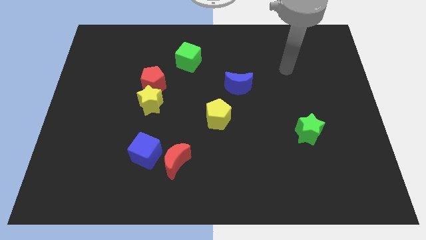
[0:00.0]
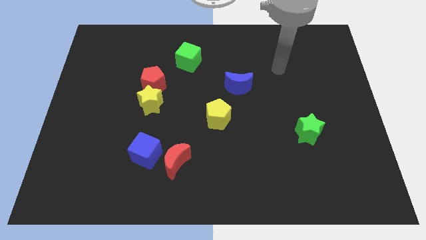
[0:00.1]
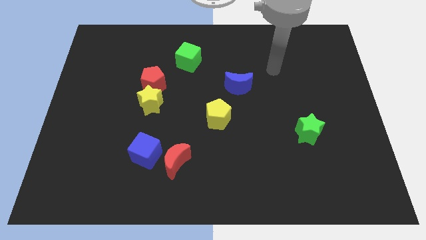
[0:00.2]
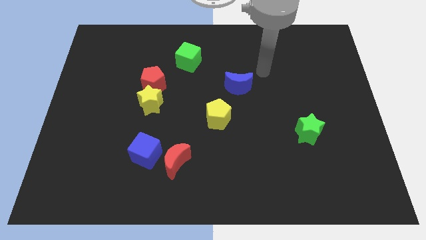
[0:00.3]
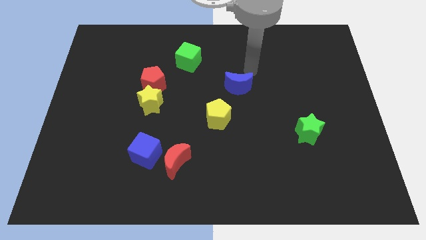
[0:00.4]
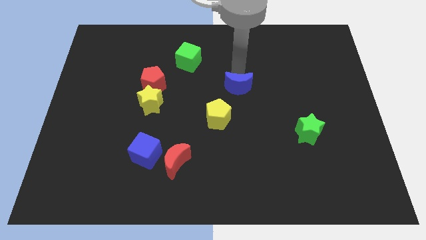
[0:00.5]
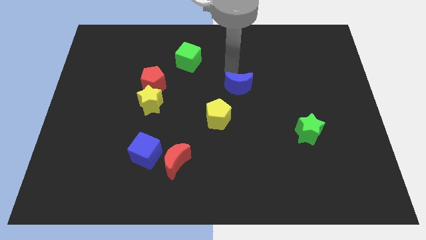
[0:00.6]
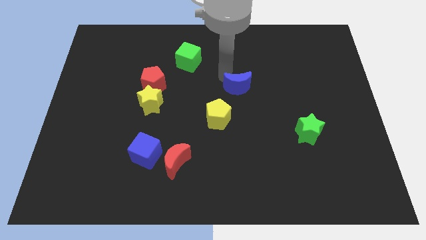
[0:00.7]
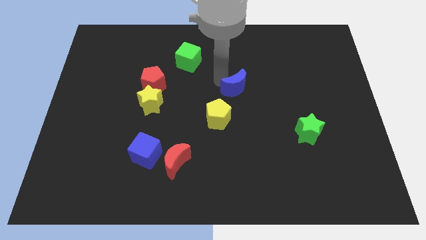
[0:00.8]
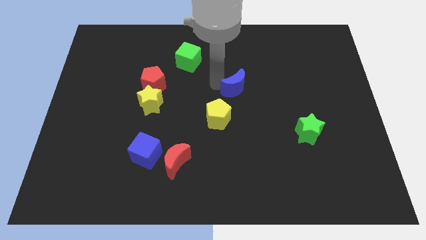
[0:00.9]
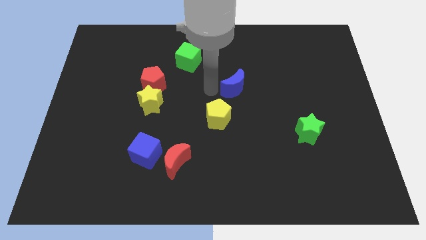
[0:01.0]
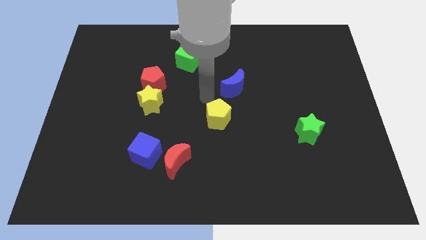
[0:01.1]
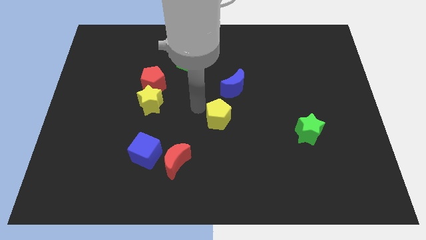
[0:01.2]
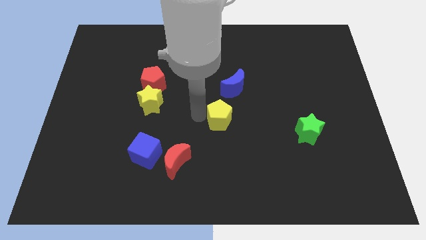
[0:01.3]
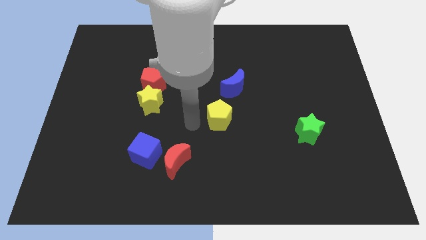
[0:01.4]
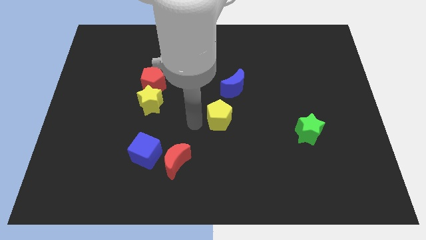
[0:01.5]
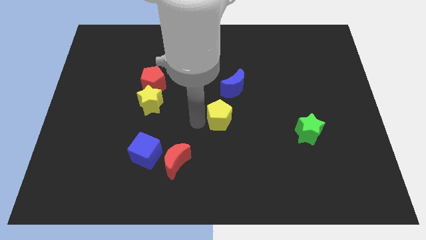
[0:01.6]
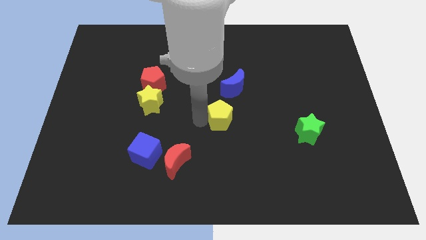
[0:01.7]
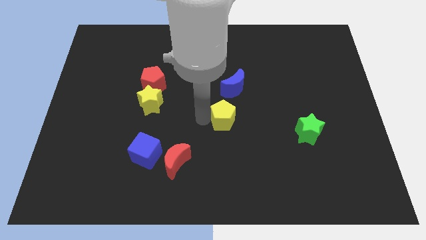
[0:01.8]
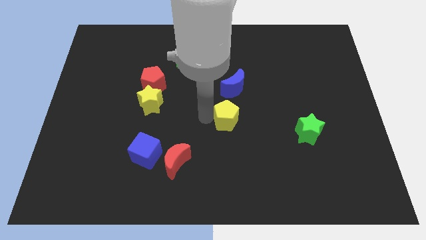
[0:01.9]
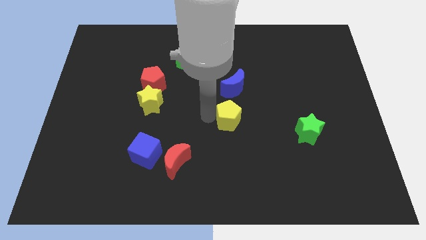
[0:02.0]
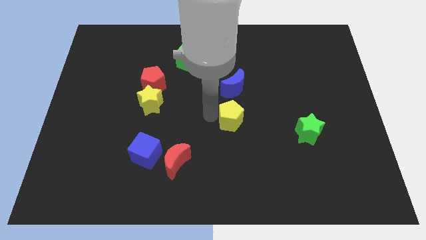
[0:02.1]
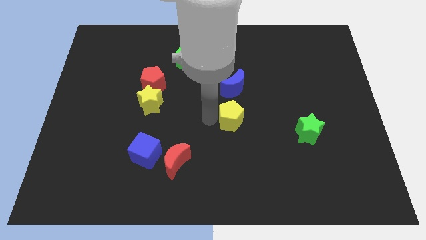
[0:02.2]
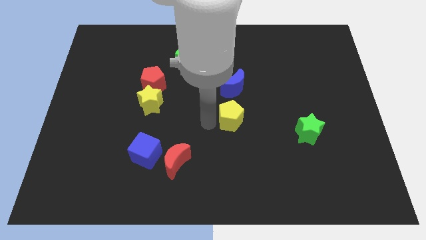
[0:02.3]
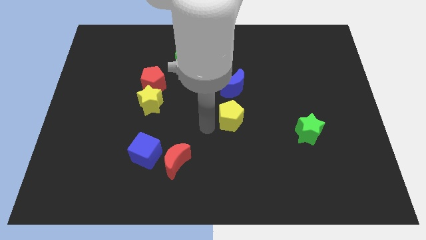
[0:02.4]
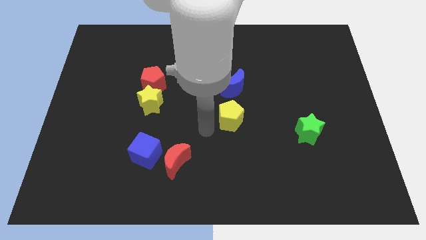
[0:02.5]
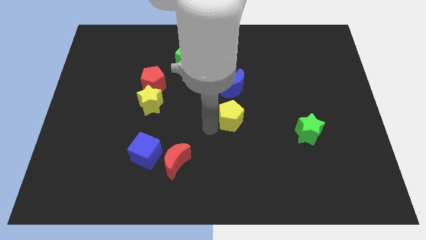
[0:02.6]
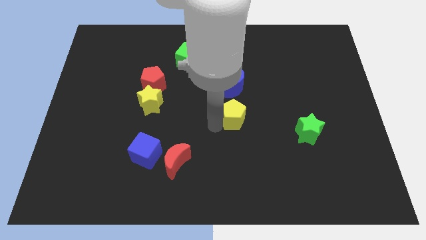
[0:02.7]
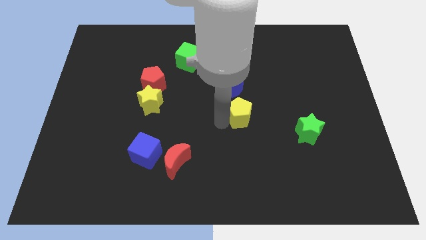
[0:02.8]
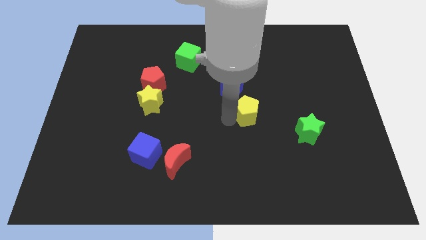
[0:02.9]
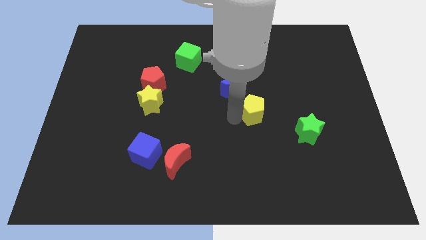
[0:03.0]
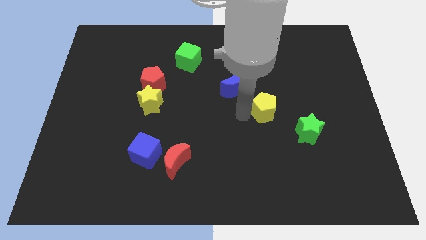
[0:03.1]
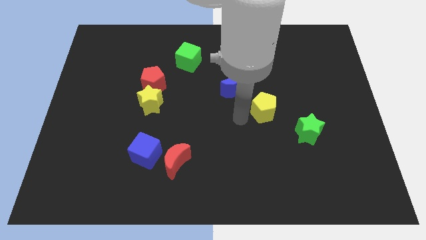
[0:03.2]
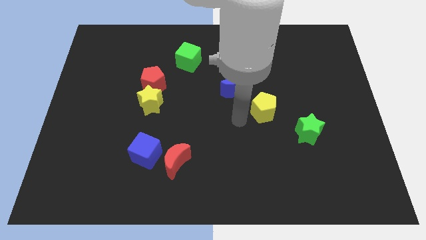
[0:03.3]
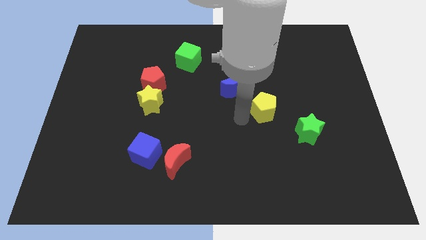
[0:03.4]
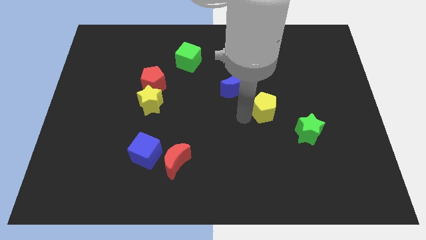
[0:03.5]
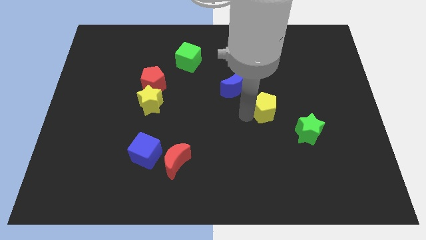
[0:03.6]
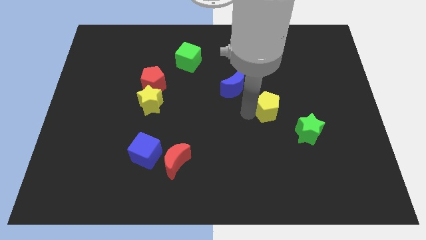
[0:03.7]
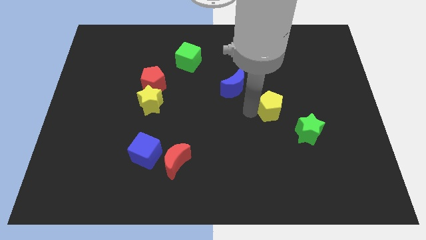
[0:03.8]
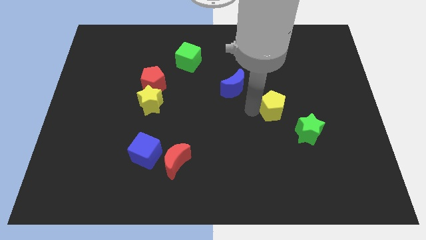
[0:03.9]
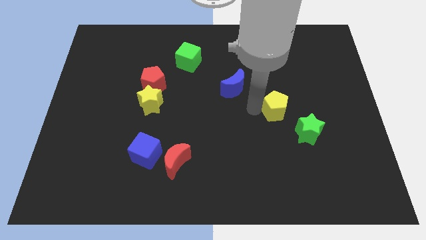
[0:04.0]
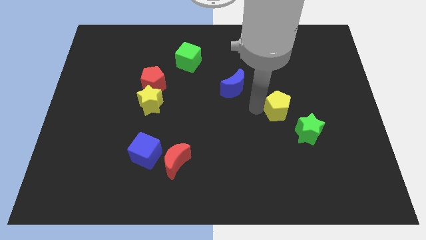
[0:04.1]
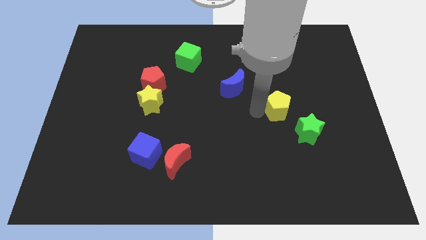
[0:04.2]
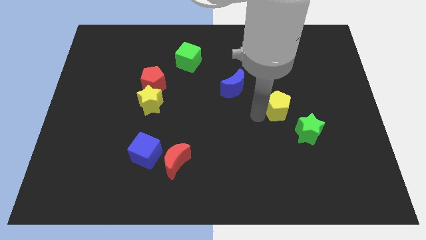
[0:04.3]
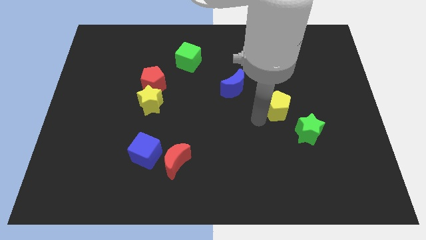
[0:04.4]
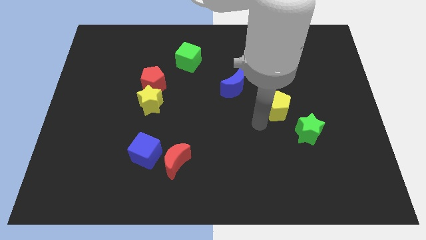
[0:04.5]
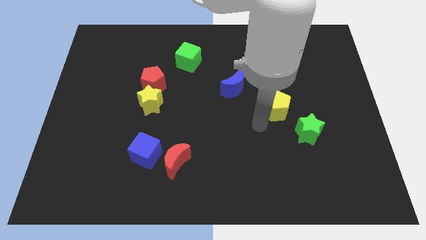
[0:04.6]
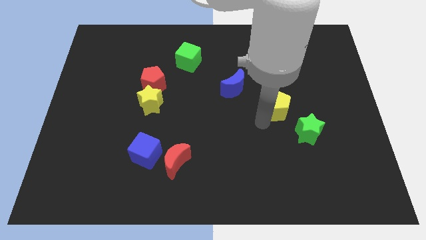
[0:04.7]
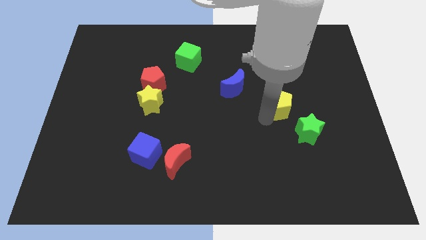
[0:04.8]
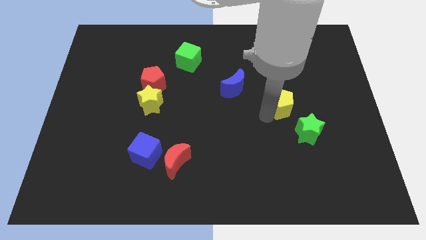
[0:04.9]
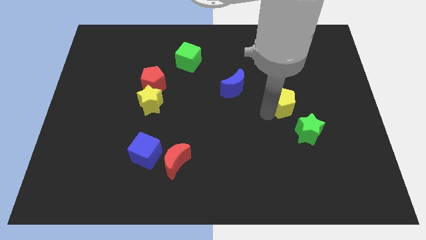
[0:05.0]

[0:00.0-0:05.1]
slide the yellow pentagon to the top side of the green star
